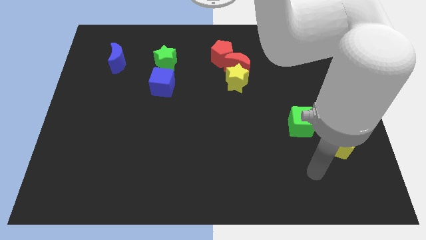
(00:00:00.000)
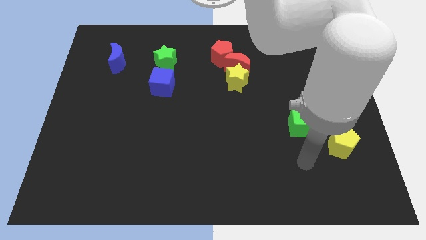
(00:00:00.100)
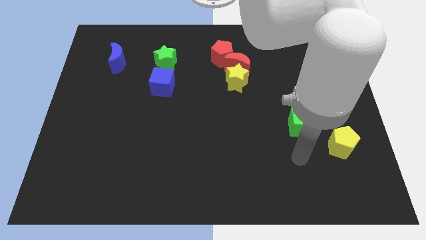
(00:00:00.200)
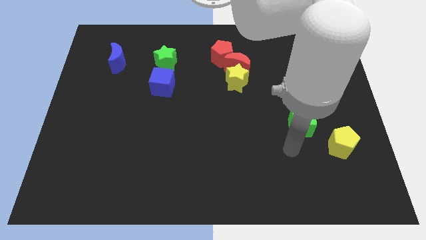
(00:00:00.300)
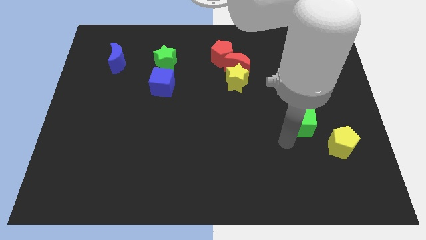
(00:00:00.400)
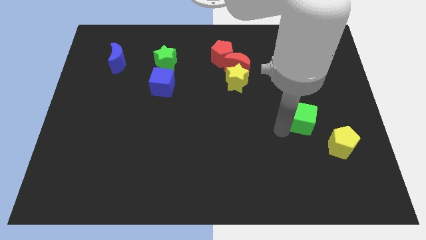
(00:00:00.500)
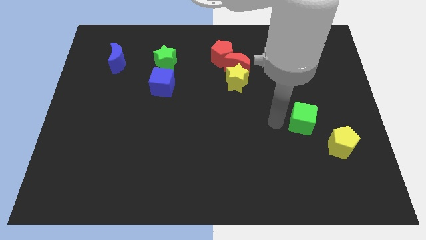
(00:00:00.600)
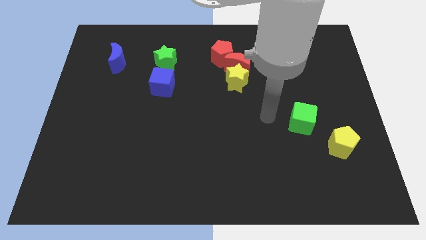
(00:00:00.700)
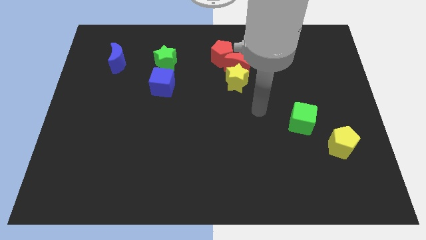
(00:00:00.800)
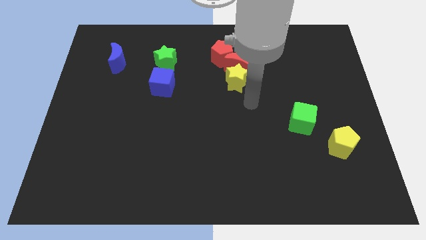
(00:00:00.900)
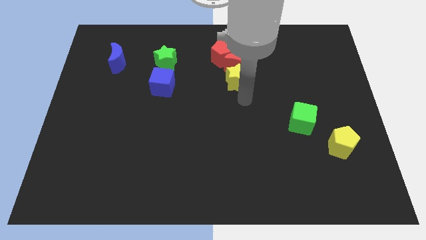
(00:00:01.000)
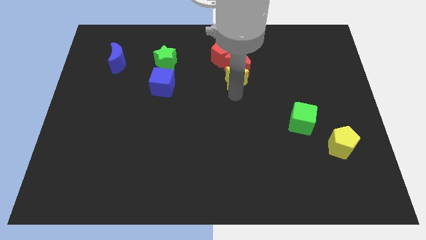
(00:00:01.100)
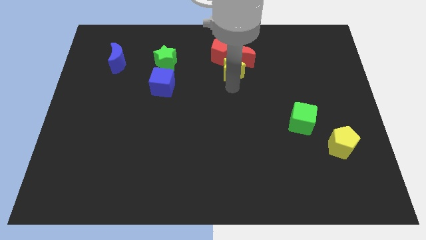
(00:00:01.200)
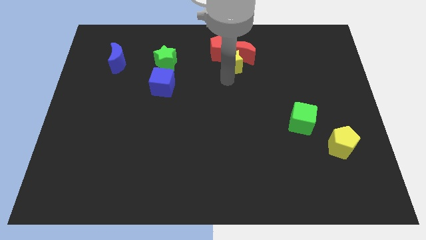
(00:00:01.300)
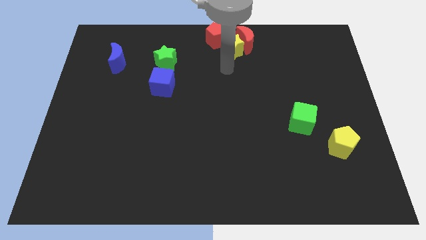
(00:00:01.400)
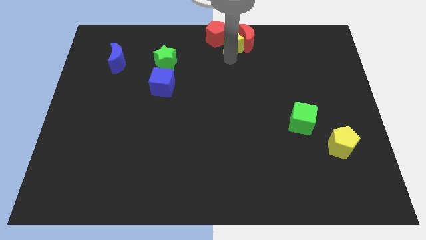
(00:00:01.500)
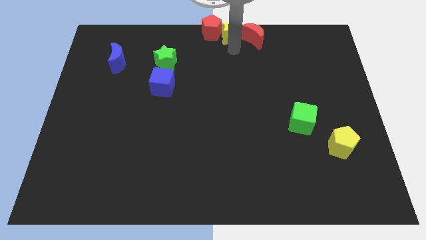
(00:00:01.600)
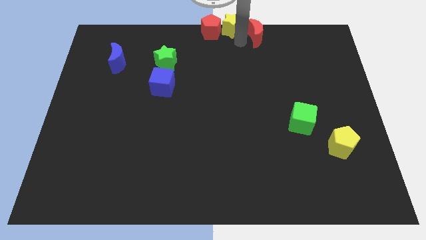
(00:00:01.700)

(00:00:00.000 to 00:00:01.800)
pull the red moon apart from the yellow star and red pentagon

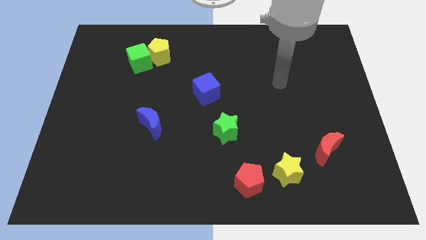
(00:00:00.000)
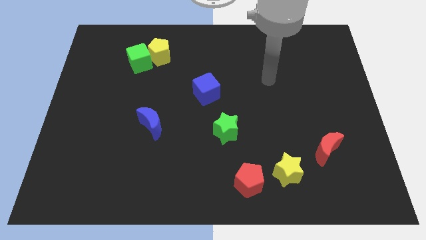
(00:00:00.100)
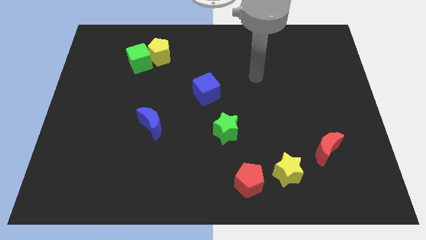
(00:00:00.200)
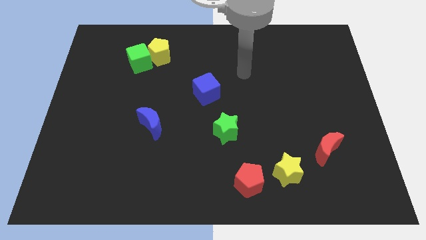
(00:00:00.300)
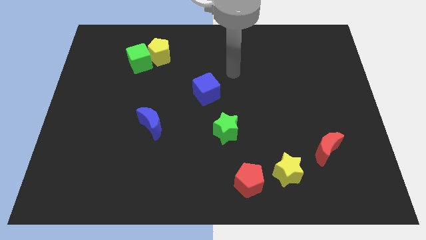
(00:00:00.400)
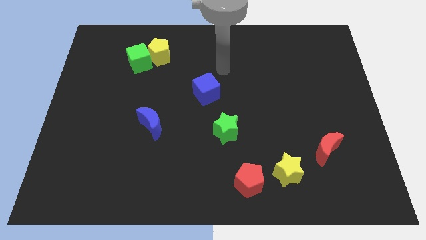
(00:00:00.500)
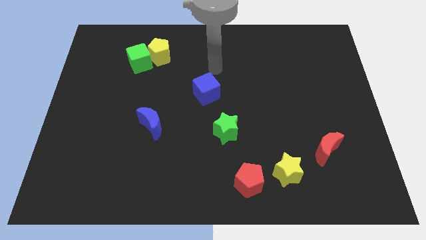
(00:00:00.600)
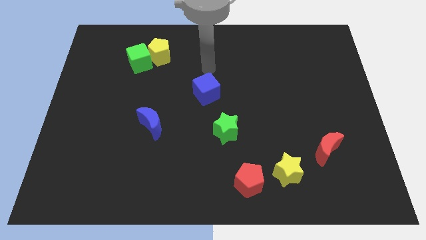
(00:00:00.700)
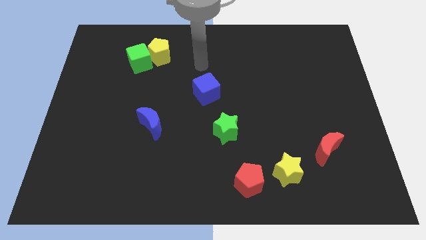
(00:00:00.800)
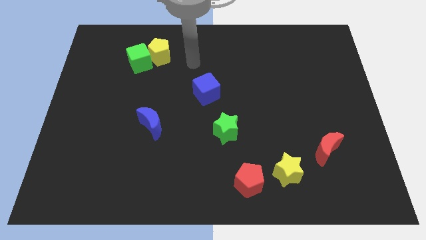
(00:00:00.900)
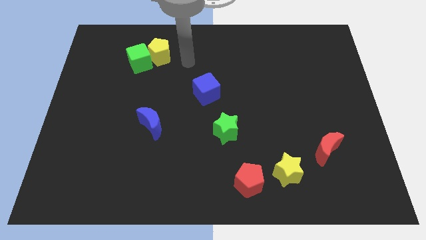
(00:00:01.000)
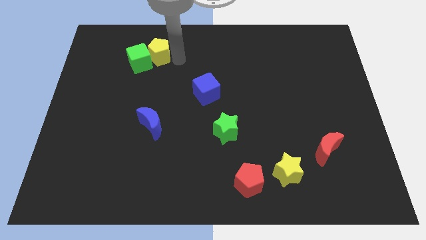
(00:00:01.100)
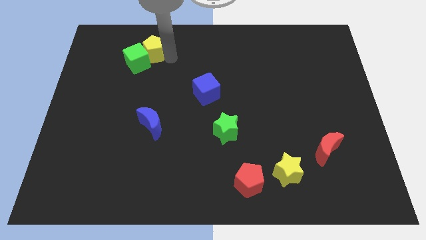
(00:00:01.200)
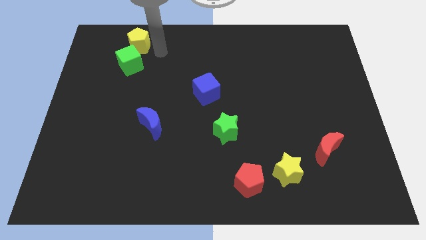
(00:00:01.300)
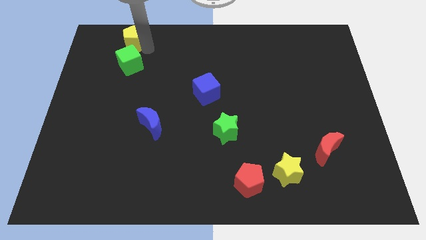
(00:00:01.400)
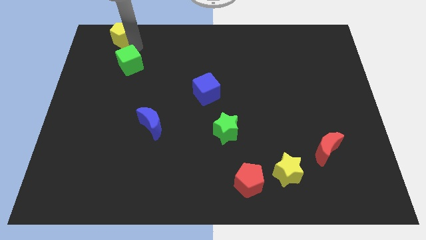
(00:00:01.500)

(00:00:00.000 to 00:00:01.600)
move the green cube away from the yellow pentagon

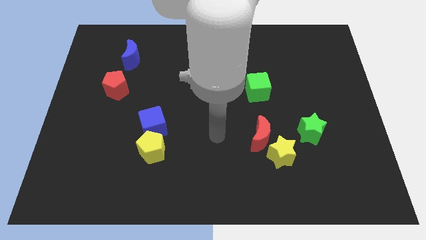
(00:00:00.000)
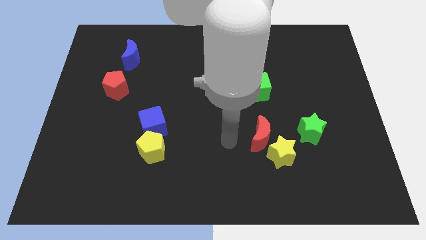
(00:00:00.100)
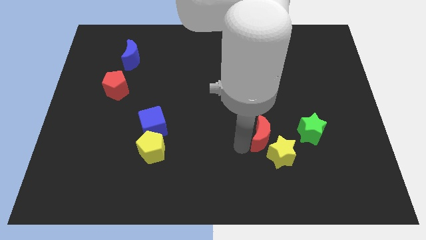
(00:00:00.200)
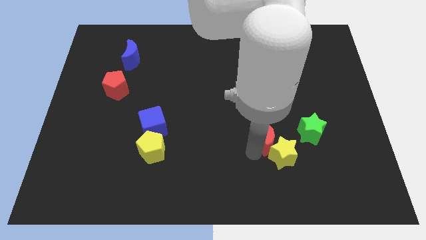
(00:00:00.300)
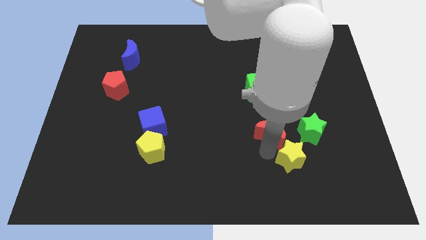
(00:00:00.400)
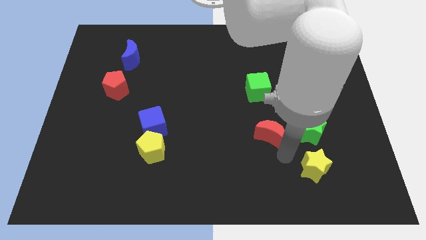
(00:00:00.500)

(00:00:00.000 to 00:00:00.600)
separate the red moon from the yellow star

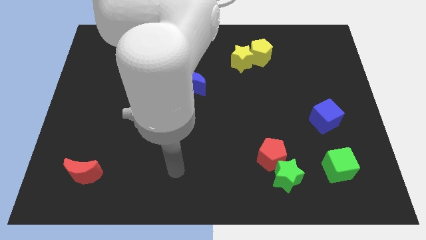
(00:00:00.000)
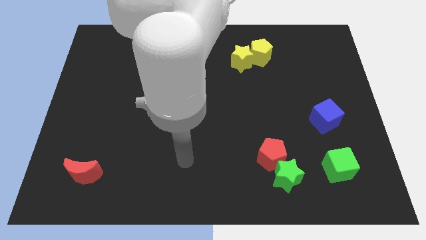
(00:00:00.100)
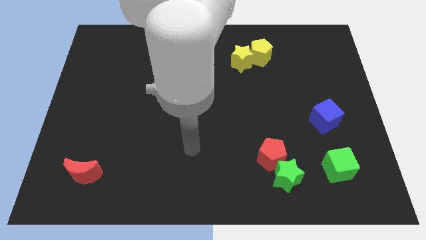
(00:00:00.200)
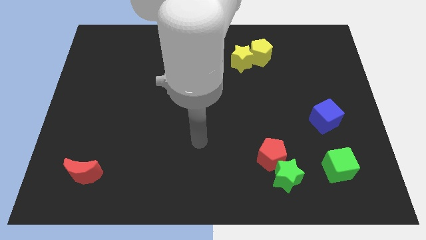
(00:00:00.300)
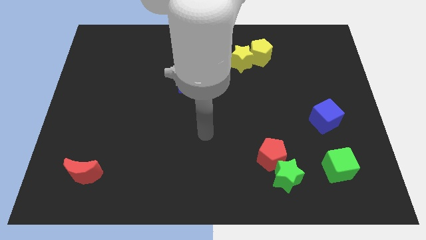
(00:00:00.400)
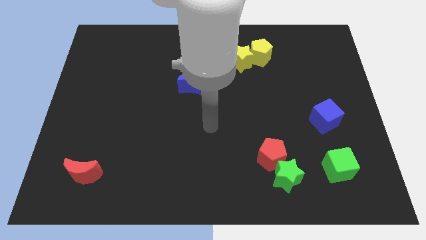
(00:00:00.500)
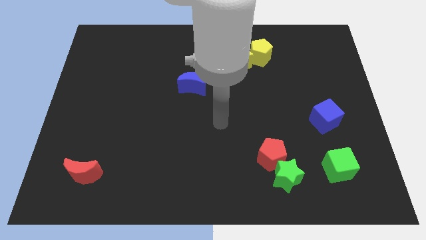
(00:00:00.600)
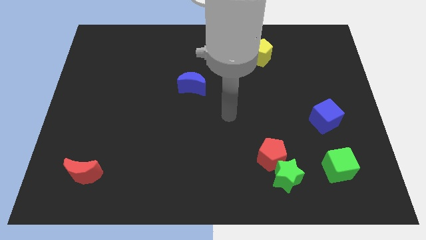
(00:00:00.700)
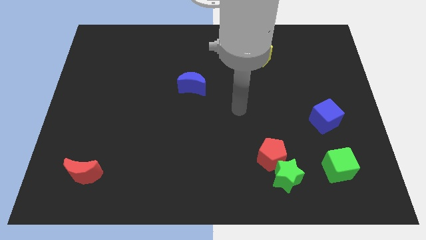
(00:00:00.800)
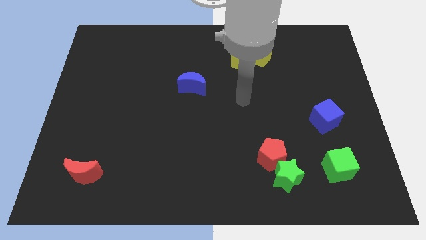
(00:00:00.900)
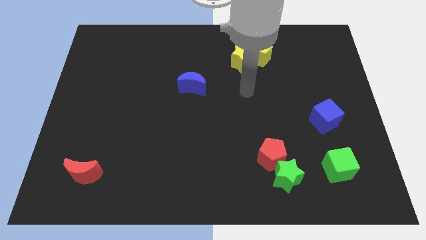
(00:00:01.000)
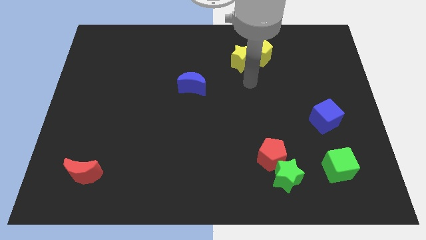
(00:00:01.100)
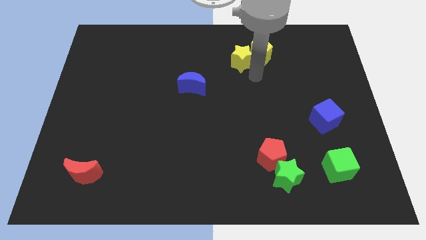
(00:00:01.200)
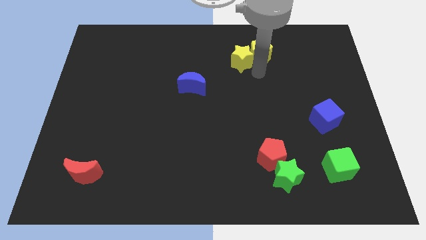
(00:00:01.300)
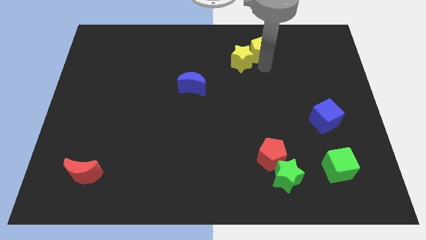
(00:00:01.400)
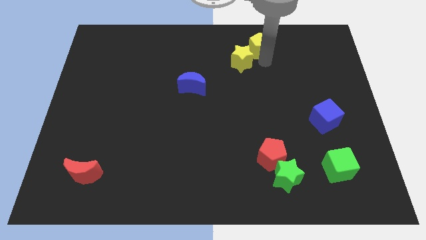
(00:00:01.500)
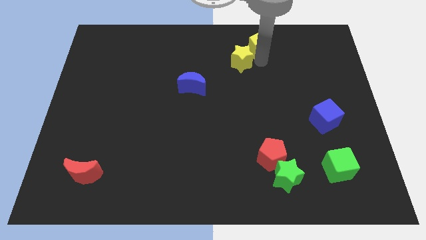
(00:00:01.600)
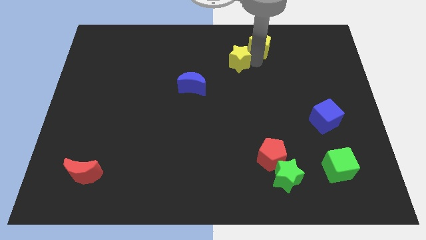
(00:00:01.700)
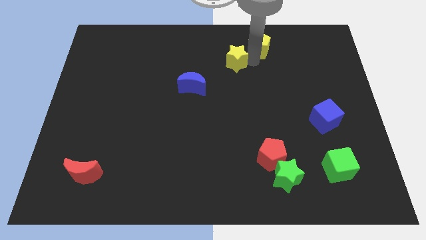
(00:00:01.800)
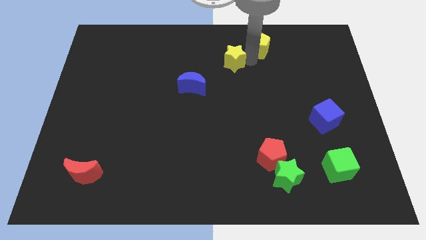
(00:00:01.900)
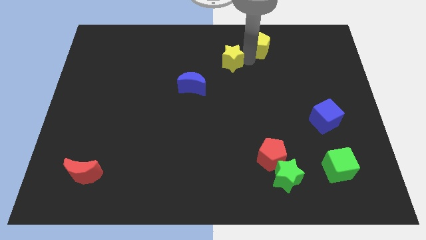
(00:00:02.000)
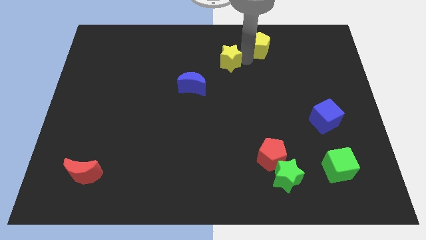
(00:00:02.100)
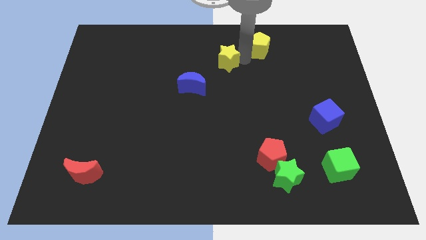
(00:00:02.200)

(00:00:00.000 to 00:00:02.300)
pull the yellow star apart from the yellow pentagon

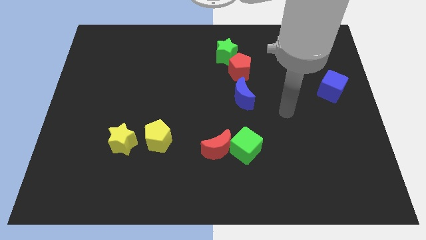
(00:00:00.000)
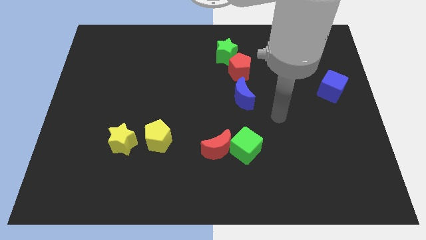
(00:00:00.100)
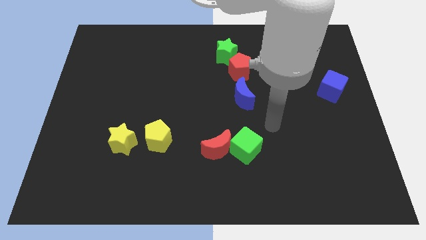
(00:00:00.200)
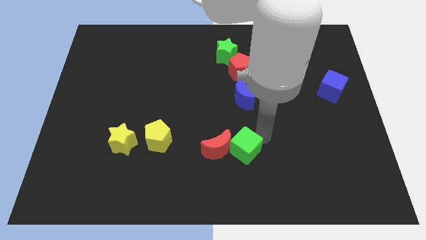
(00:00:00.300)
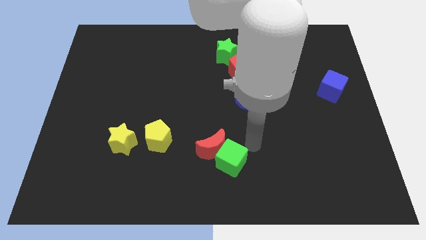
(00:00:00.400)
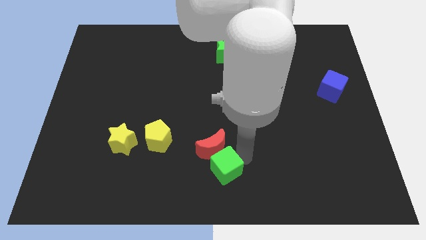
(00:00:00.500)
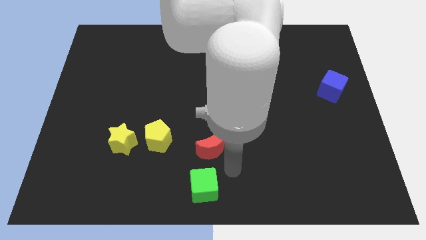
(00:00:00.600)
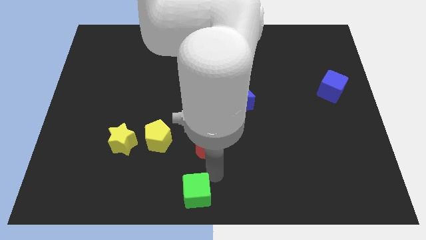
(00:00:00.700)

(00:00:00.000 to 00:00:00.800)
move the red moon away from the green cube

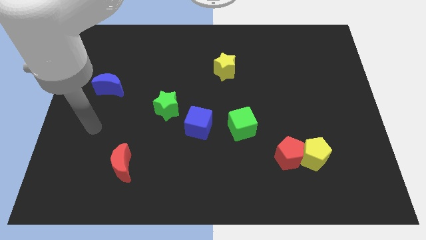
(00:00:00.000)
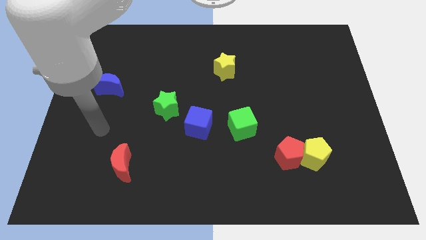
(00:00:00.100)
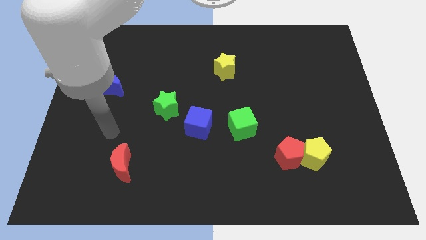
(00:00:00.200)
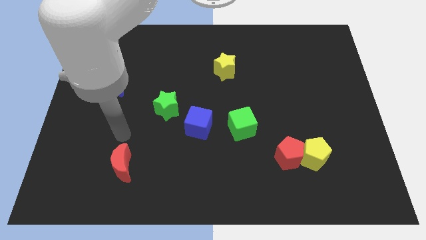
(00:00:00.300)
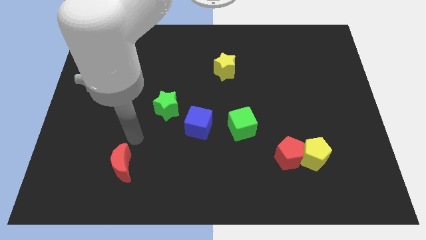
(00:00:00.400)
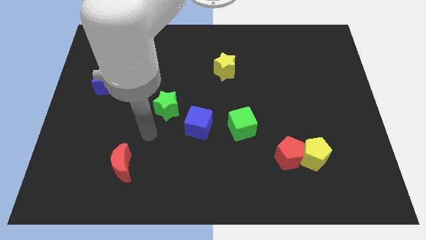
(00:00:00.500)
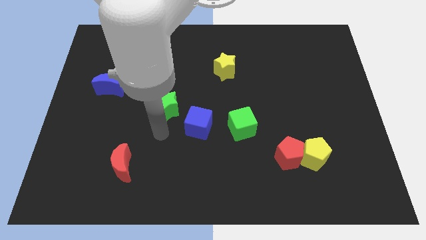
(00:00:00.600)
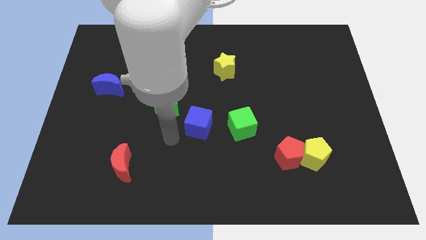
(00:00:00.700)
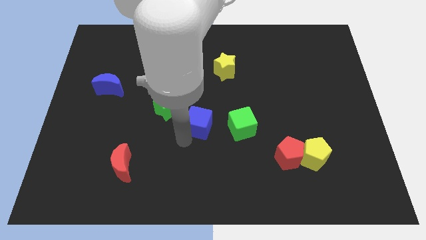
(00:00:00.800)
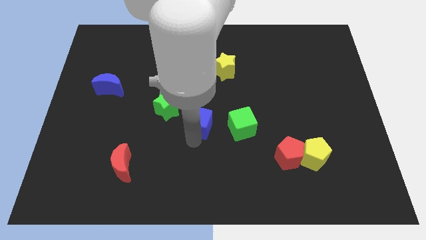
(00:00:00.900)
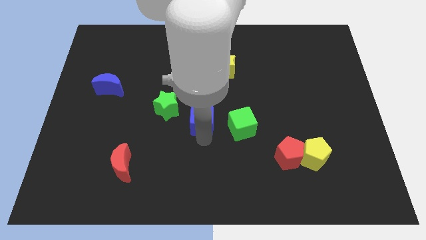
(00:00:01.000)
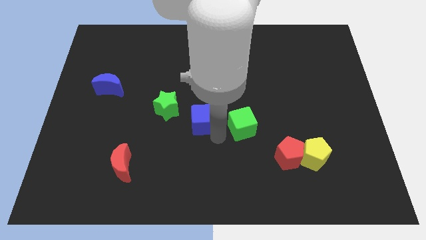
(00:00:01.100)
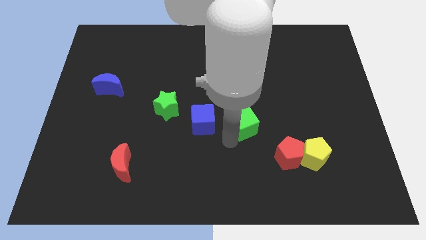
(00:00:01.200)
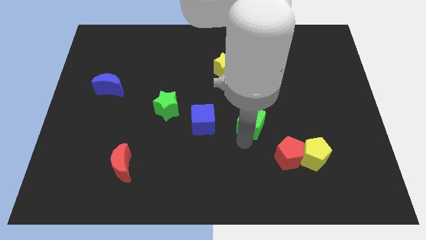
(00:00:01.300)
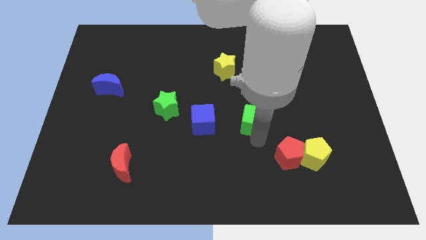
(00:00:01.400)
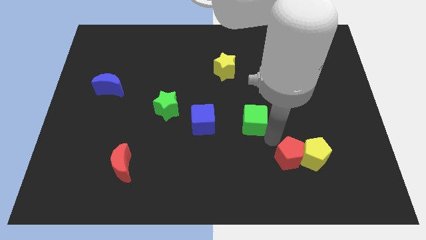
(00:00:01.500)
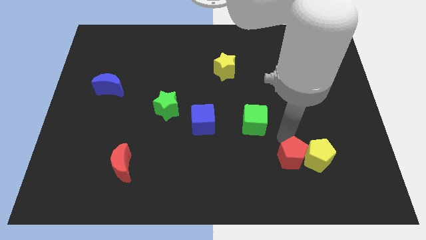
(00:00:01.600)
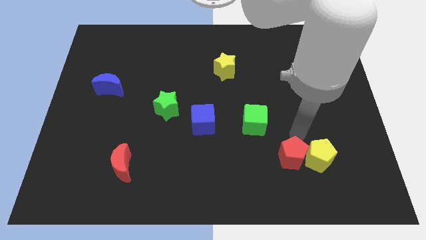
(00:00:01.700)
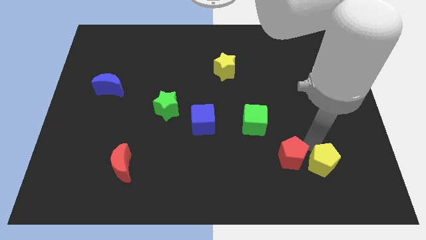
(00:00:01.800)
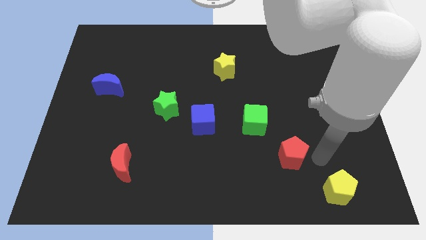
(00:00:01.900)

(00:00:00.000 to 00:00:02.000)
pull the red pentagon apart from the yellow pentagon

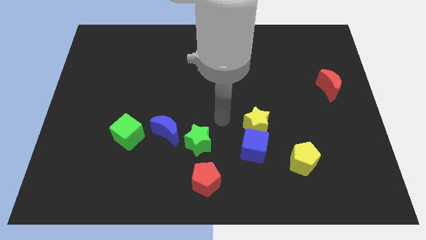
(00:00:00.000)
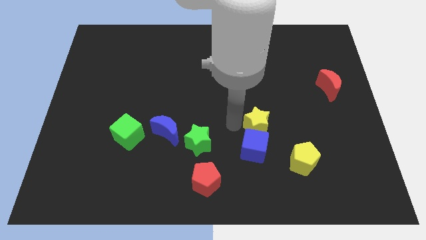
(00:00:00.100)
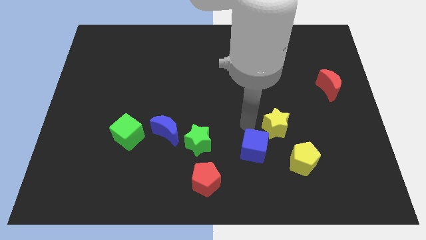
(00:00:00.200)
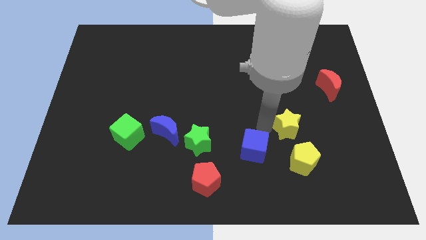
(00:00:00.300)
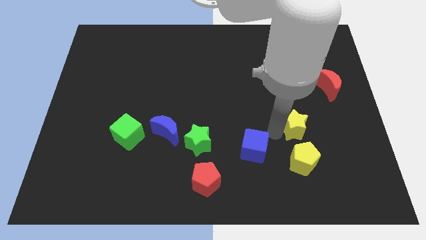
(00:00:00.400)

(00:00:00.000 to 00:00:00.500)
move the blue cube away from the yellow star
